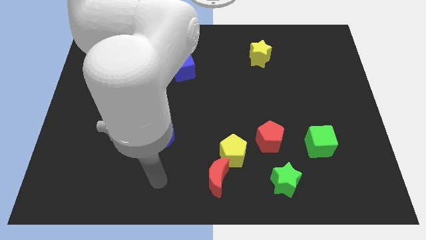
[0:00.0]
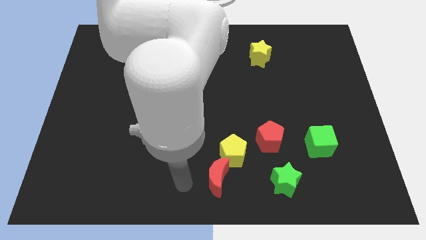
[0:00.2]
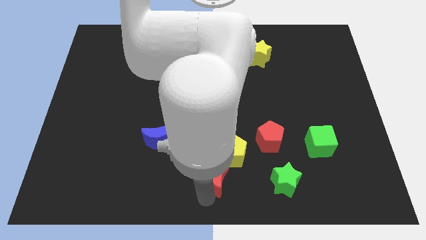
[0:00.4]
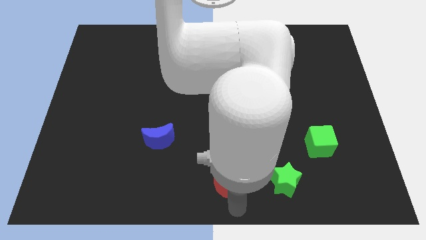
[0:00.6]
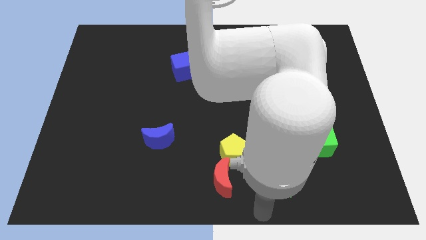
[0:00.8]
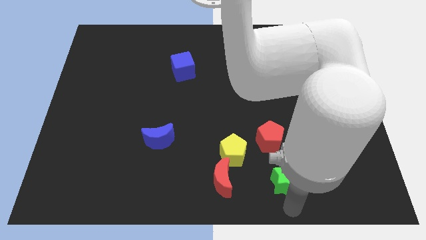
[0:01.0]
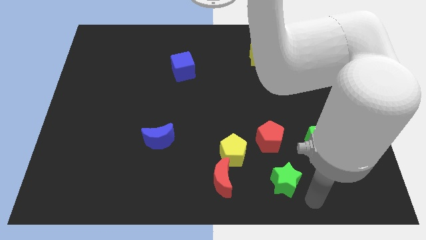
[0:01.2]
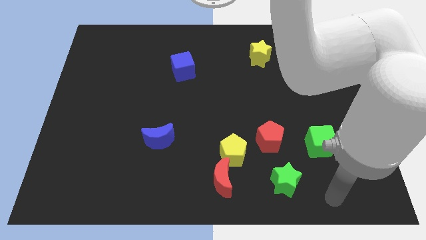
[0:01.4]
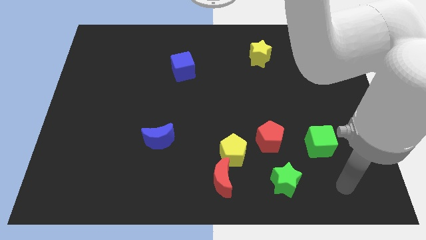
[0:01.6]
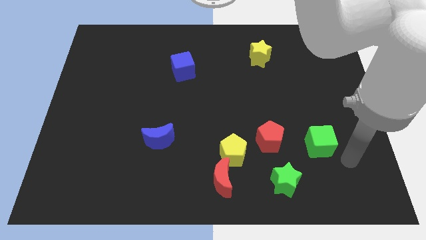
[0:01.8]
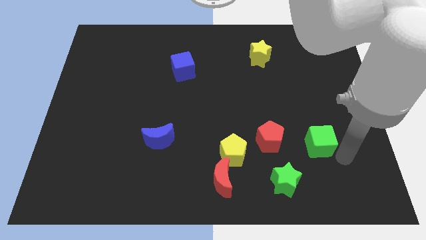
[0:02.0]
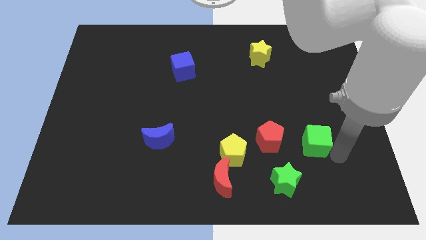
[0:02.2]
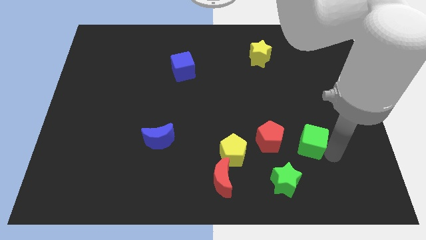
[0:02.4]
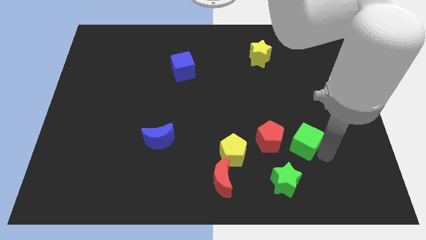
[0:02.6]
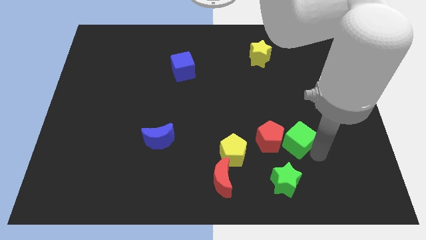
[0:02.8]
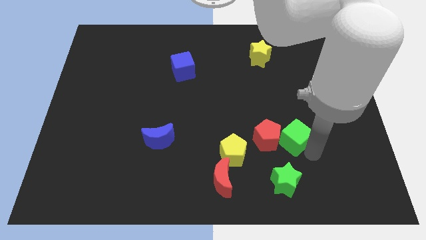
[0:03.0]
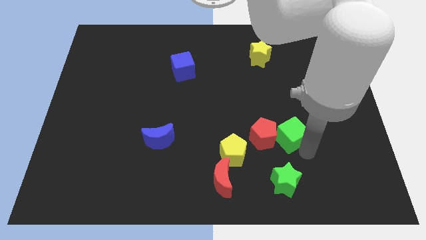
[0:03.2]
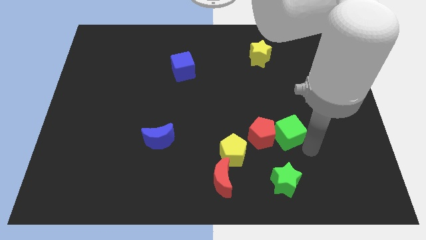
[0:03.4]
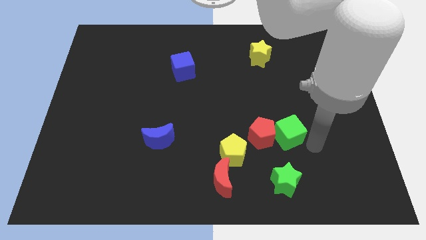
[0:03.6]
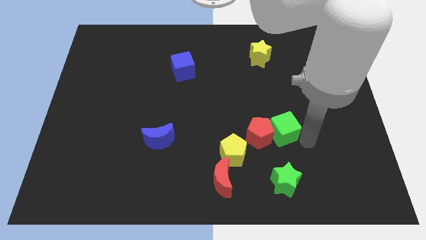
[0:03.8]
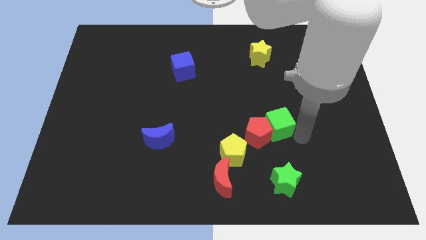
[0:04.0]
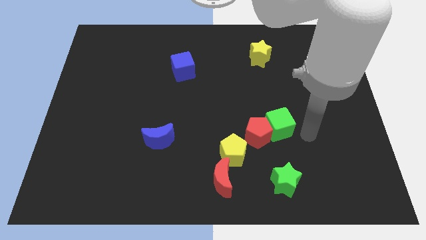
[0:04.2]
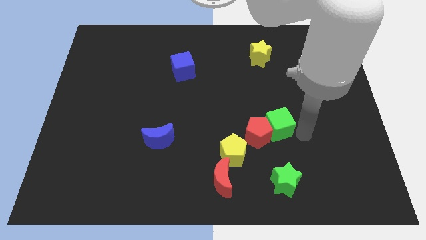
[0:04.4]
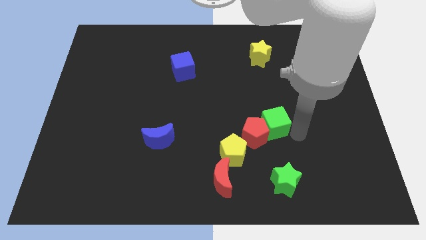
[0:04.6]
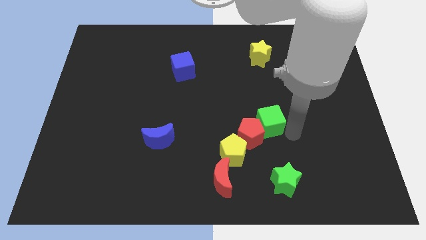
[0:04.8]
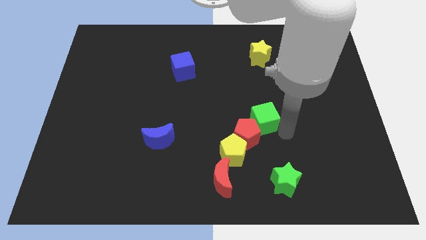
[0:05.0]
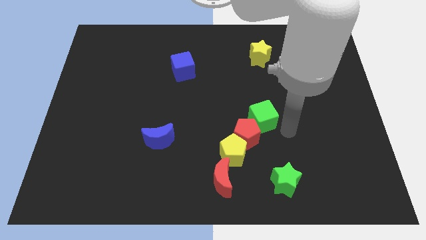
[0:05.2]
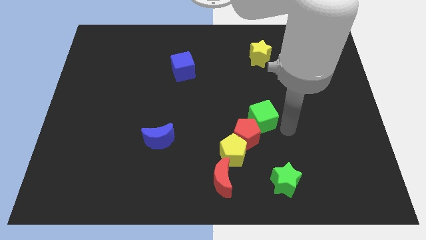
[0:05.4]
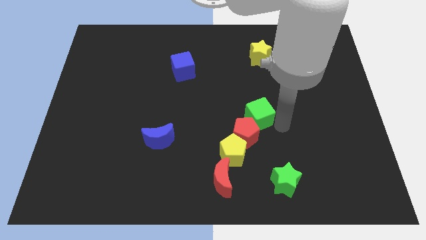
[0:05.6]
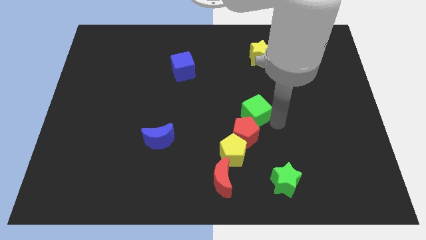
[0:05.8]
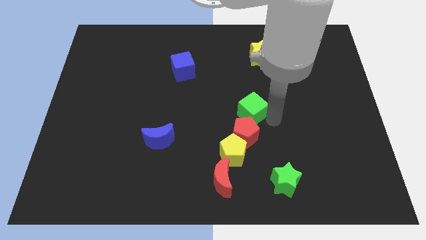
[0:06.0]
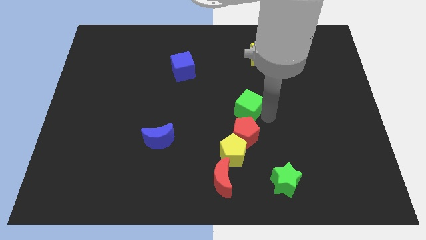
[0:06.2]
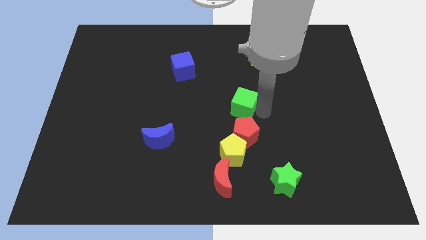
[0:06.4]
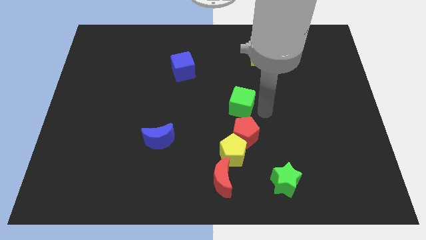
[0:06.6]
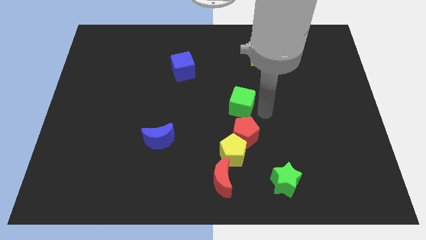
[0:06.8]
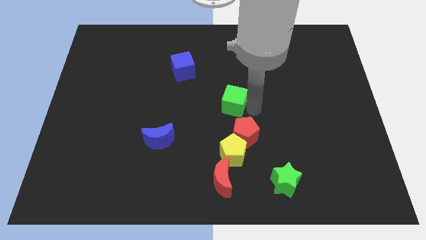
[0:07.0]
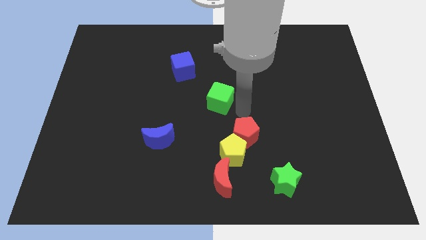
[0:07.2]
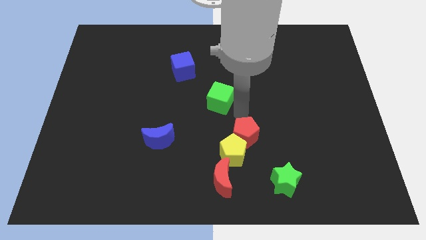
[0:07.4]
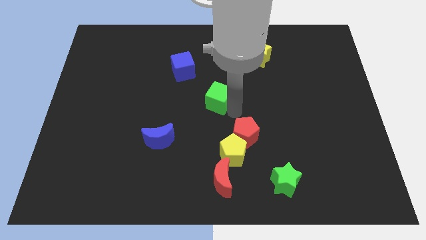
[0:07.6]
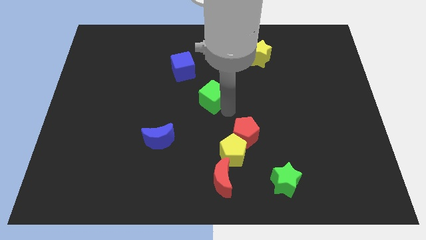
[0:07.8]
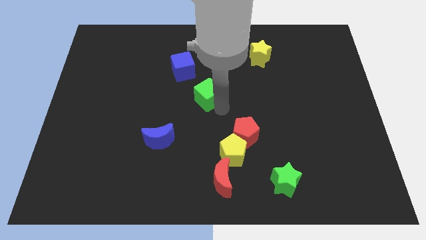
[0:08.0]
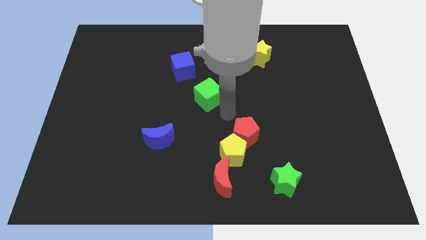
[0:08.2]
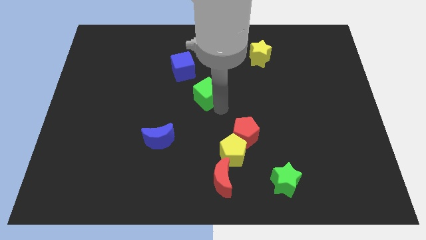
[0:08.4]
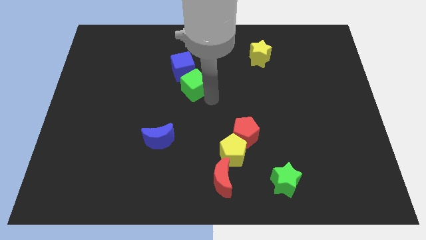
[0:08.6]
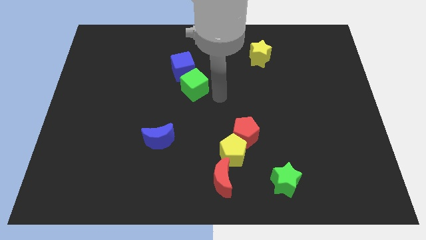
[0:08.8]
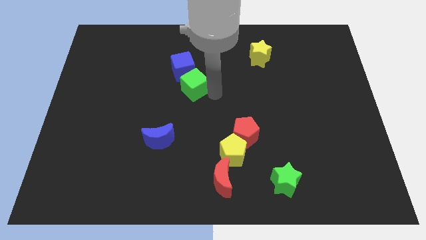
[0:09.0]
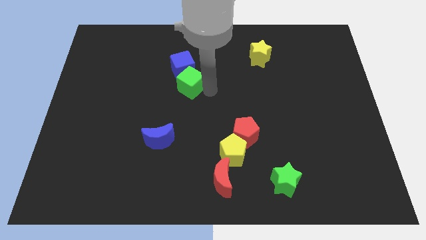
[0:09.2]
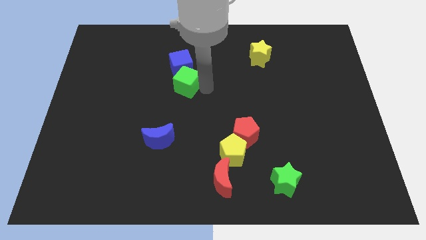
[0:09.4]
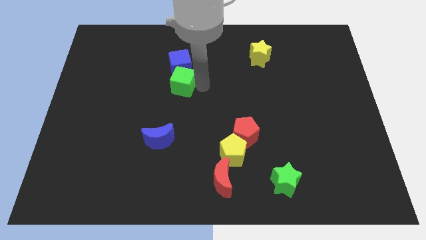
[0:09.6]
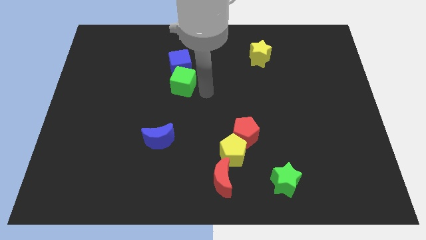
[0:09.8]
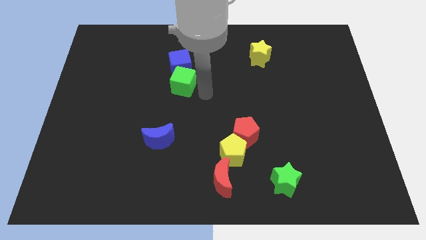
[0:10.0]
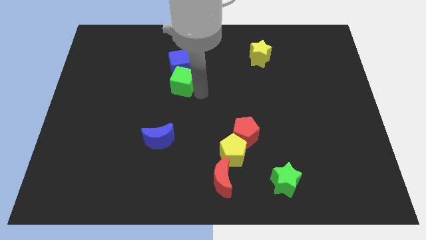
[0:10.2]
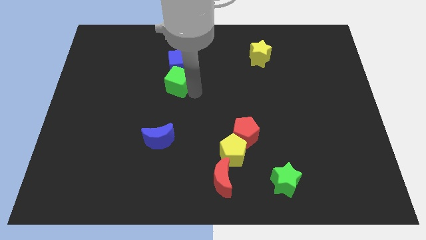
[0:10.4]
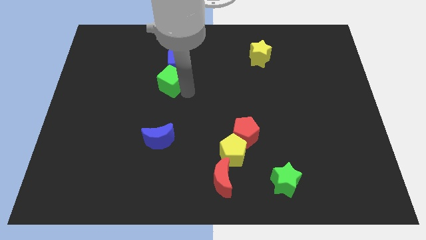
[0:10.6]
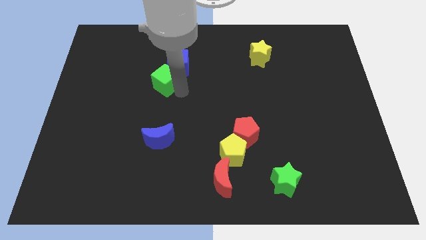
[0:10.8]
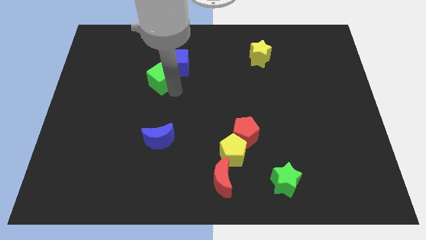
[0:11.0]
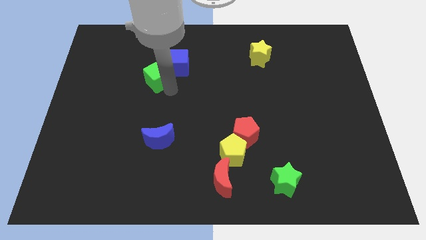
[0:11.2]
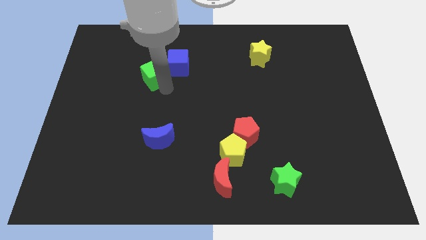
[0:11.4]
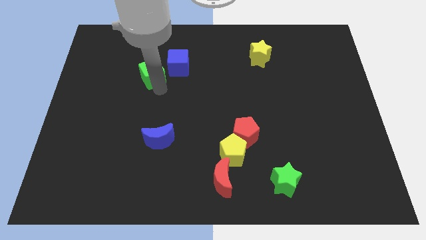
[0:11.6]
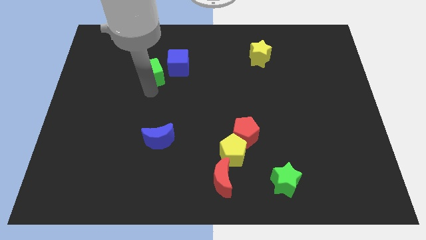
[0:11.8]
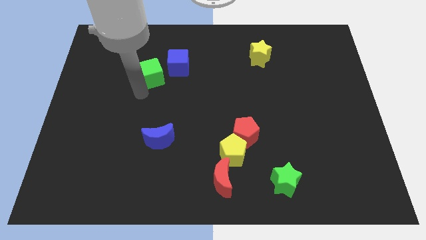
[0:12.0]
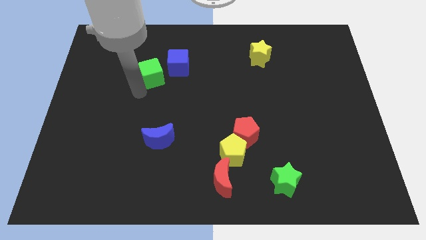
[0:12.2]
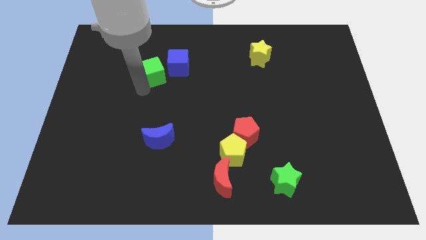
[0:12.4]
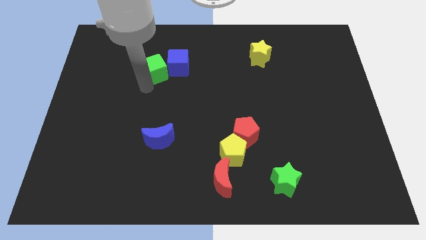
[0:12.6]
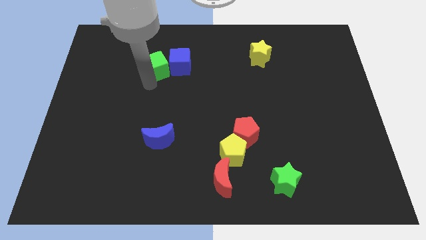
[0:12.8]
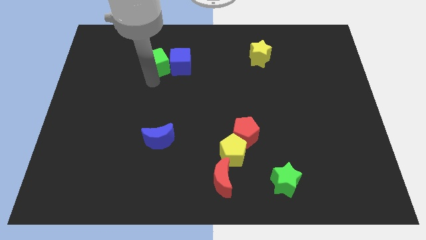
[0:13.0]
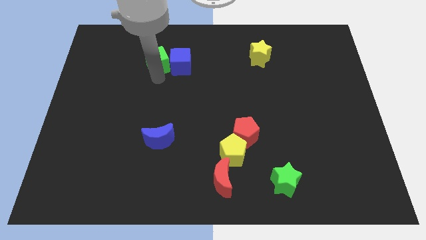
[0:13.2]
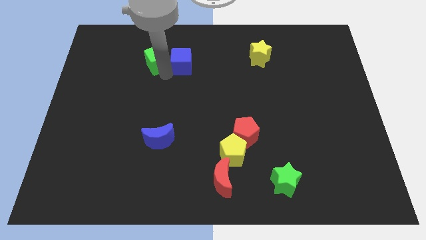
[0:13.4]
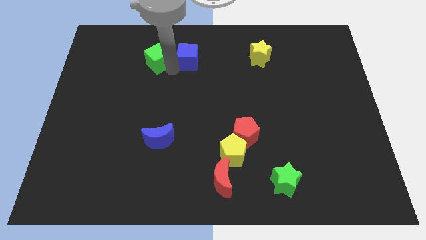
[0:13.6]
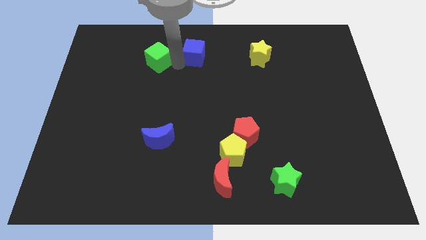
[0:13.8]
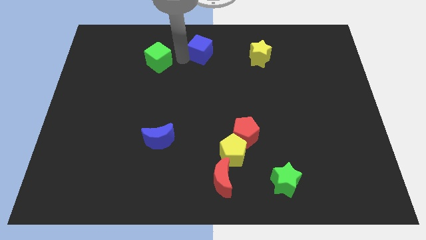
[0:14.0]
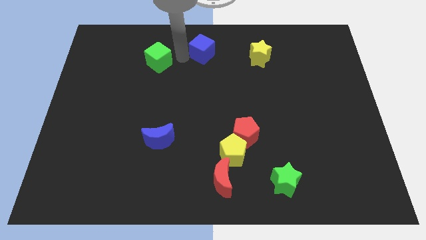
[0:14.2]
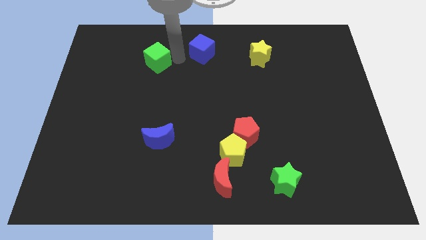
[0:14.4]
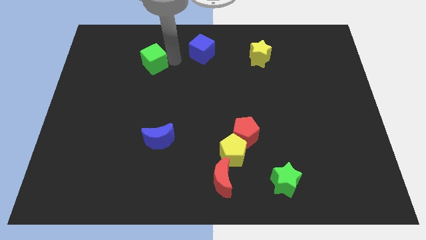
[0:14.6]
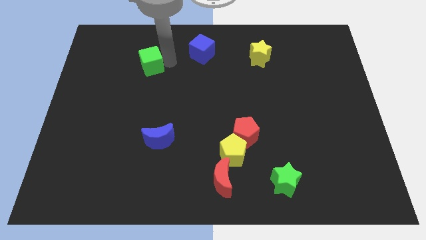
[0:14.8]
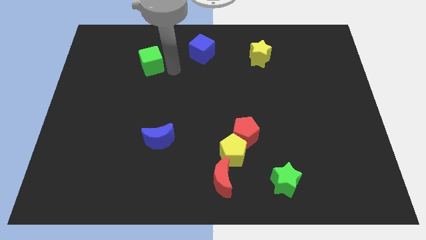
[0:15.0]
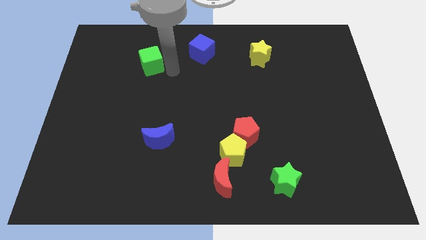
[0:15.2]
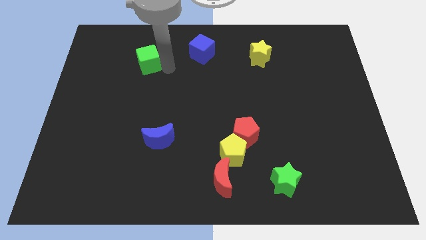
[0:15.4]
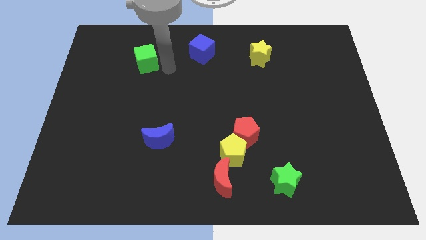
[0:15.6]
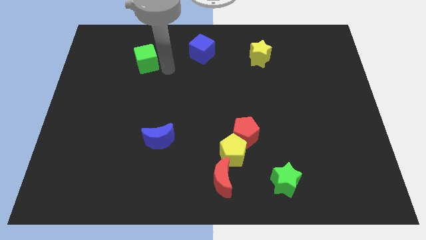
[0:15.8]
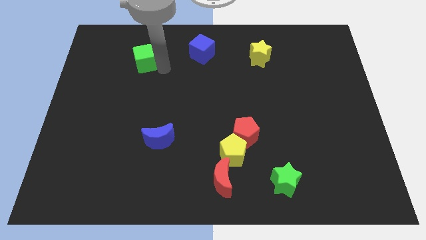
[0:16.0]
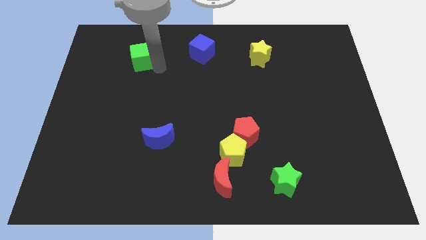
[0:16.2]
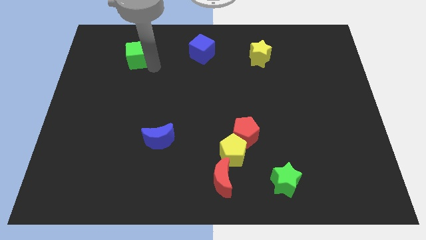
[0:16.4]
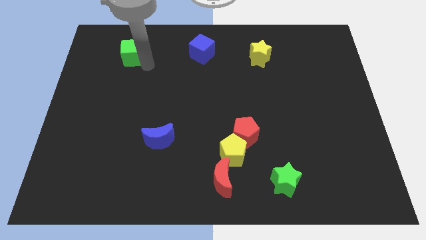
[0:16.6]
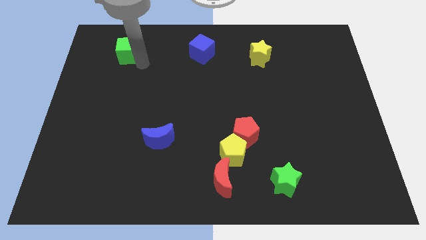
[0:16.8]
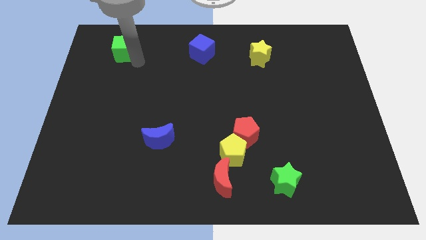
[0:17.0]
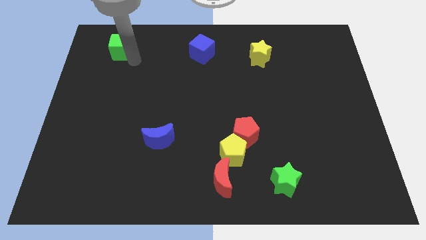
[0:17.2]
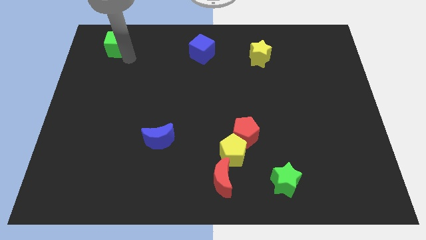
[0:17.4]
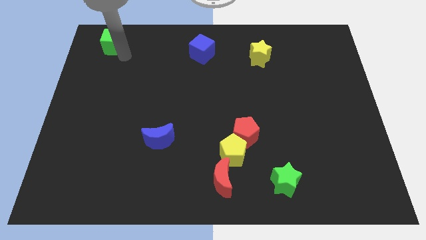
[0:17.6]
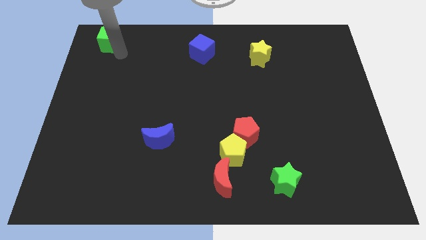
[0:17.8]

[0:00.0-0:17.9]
push the green cube to the top left corner
